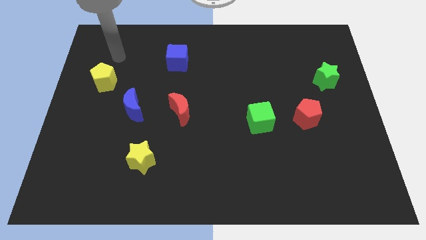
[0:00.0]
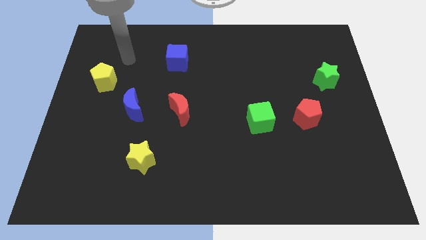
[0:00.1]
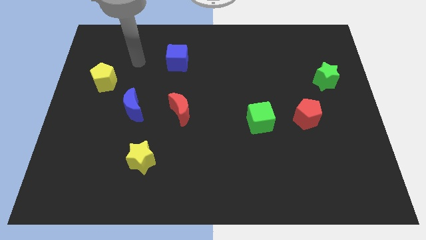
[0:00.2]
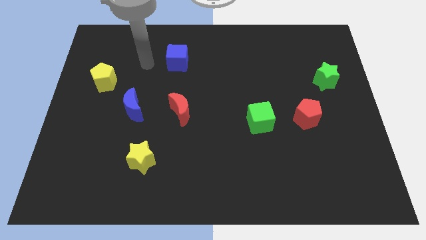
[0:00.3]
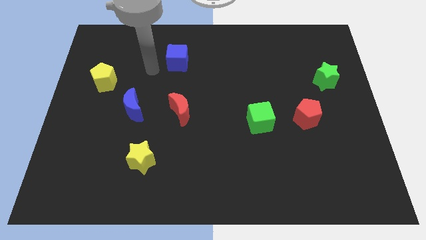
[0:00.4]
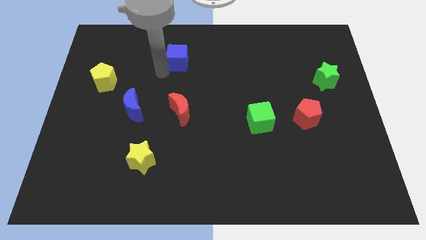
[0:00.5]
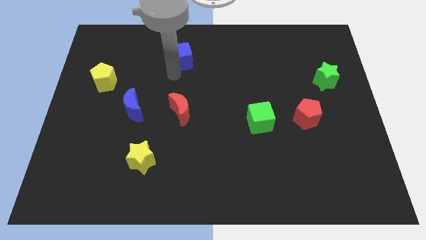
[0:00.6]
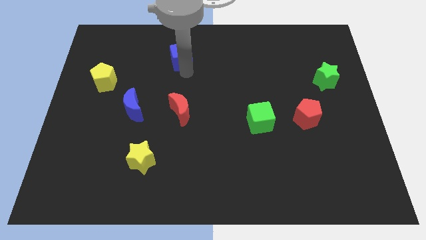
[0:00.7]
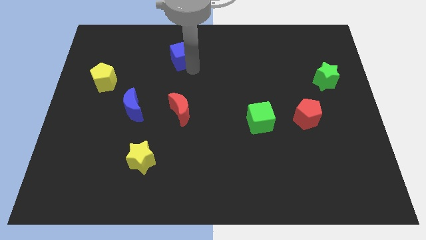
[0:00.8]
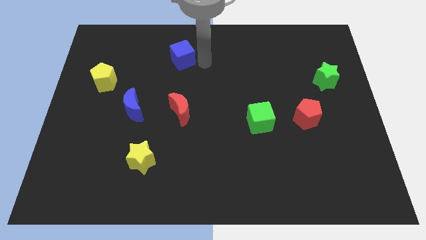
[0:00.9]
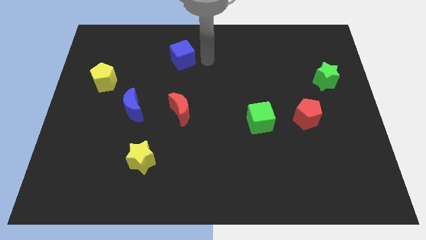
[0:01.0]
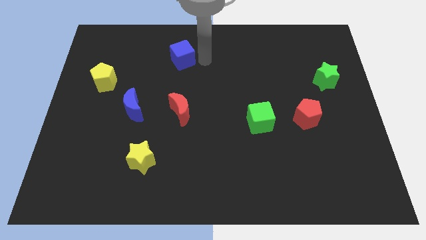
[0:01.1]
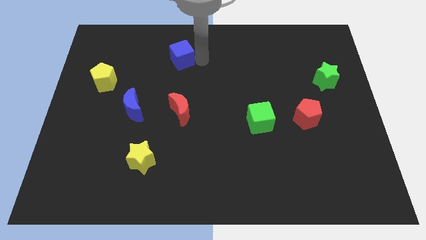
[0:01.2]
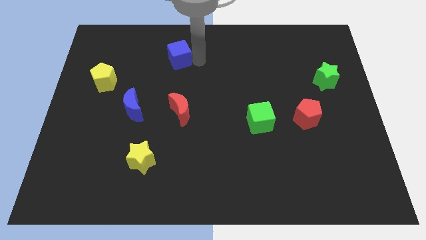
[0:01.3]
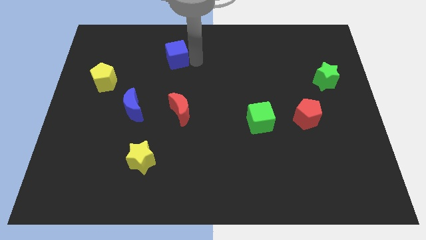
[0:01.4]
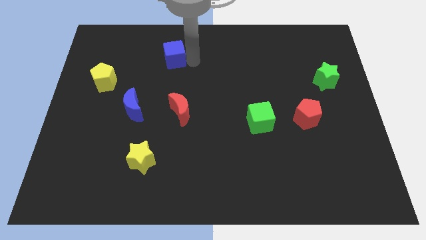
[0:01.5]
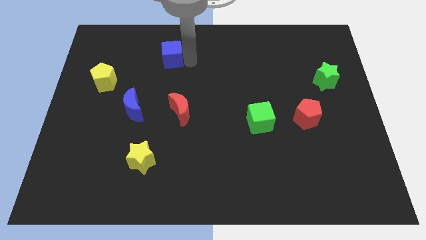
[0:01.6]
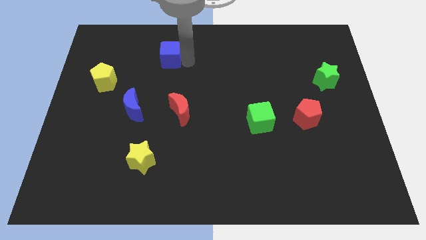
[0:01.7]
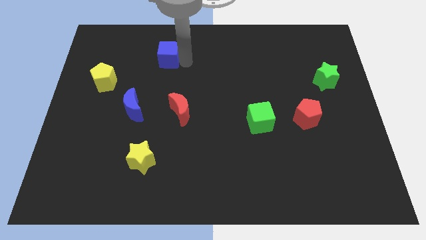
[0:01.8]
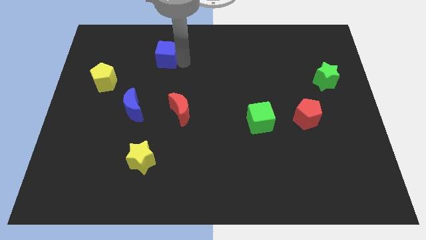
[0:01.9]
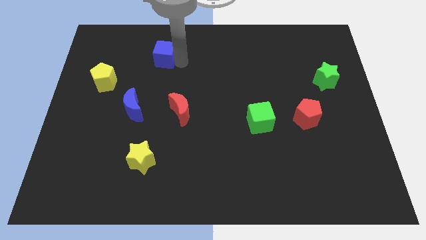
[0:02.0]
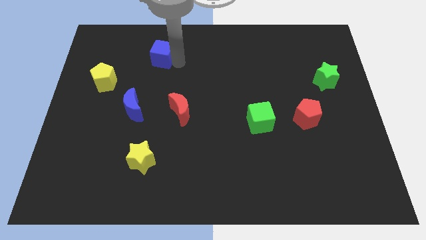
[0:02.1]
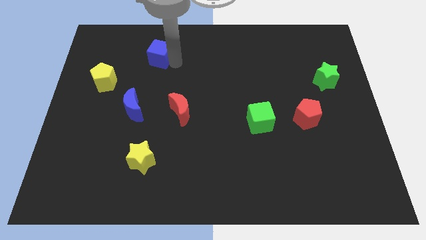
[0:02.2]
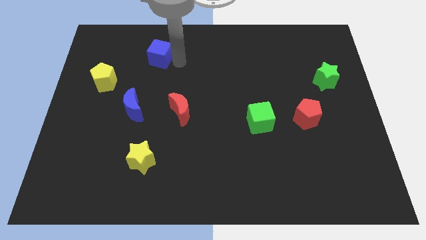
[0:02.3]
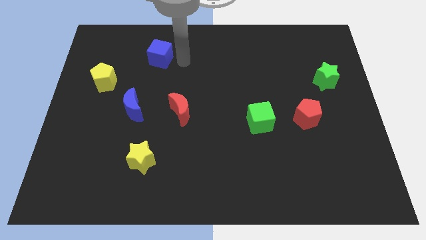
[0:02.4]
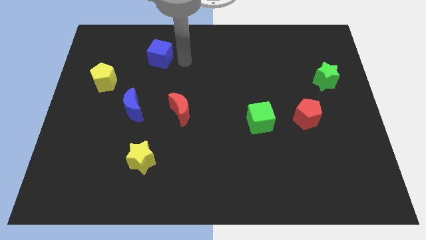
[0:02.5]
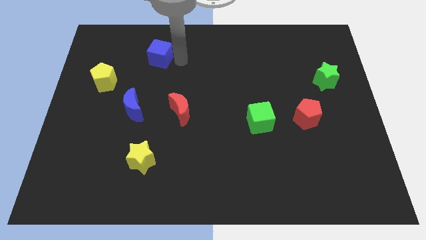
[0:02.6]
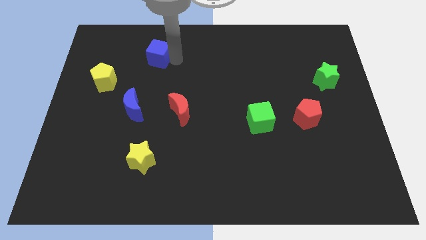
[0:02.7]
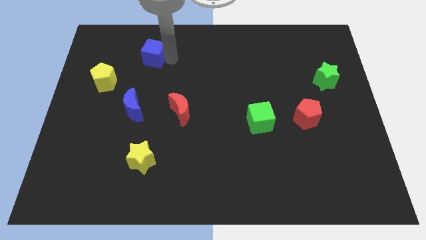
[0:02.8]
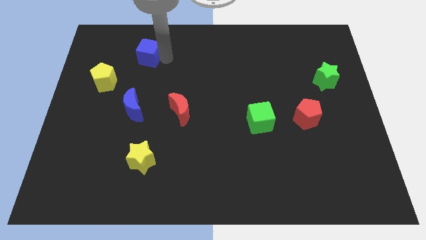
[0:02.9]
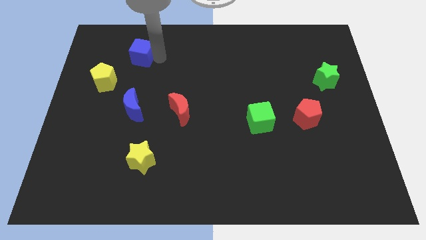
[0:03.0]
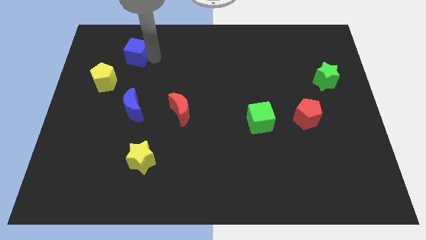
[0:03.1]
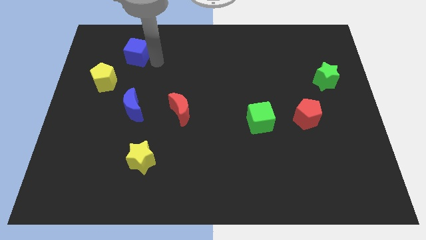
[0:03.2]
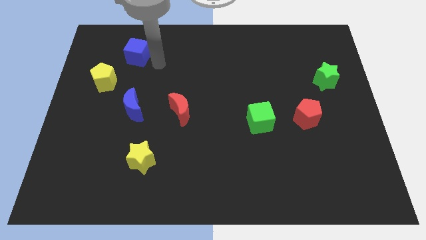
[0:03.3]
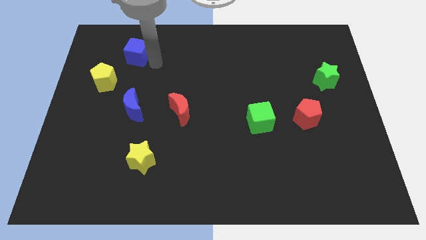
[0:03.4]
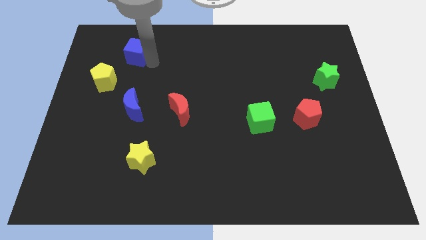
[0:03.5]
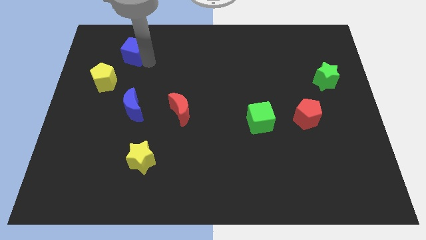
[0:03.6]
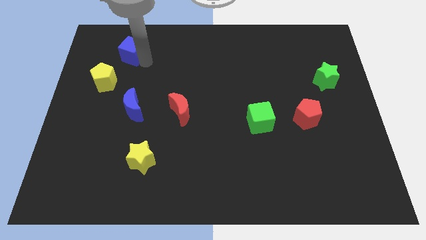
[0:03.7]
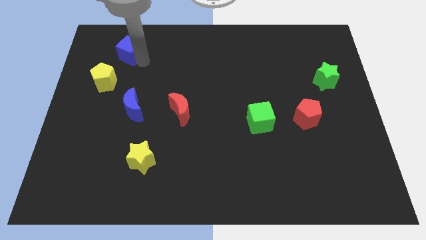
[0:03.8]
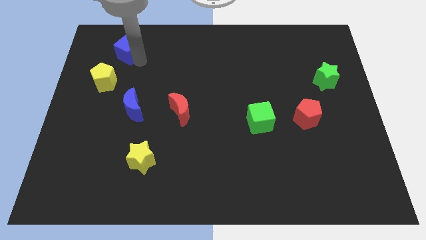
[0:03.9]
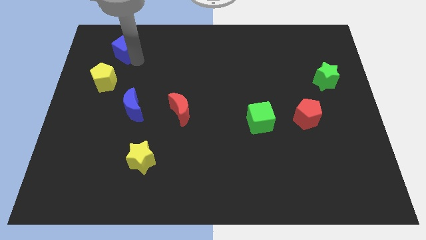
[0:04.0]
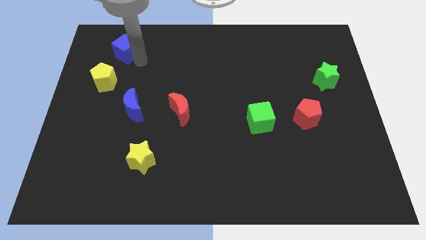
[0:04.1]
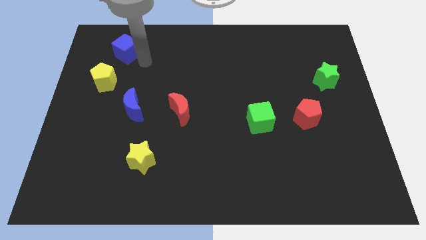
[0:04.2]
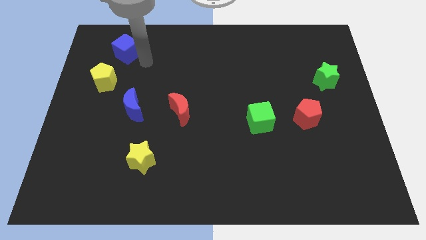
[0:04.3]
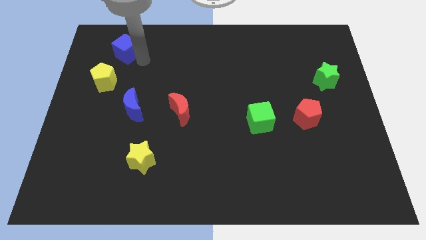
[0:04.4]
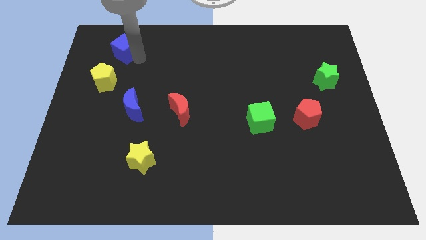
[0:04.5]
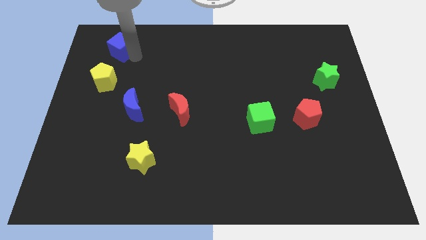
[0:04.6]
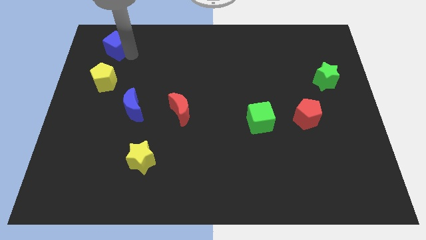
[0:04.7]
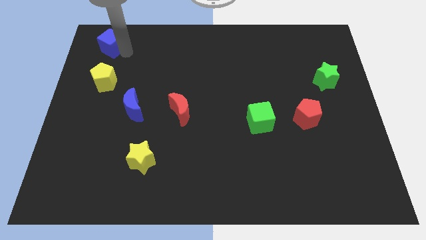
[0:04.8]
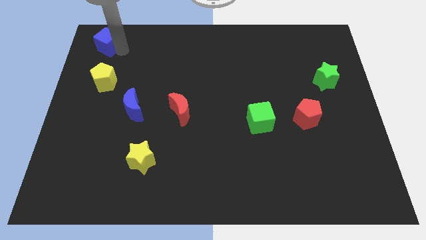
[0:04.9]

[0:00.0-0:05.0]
put the blue cube to the top left

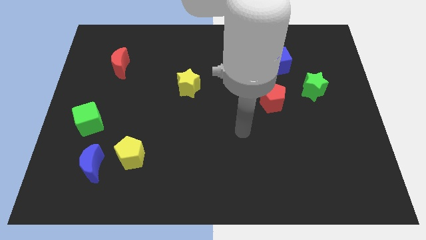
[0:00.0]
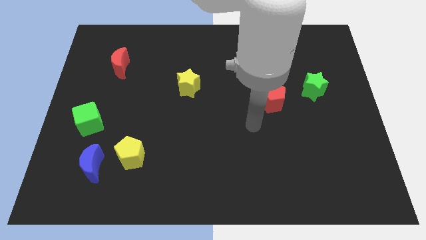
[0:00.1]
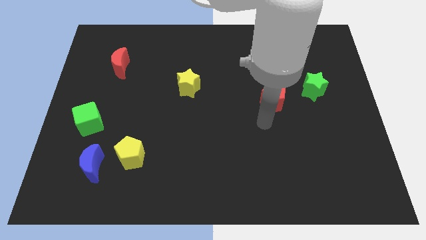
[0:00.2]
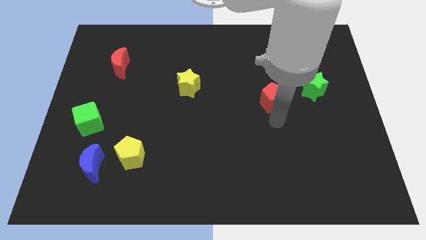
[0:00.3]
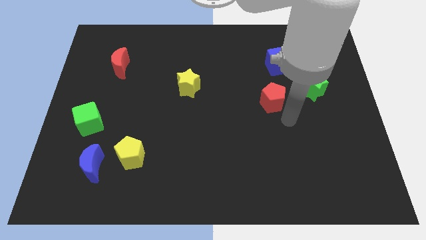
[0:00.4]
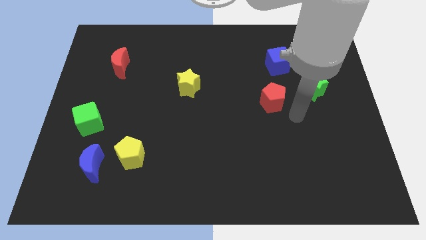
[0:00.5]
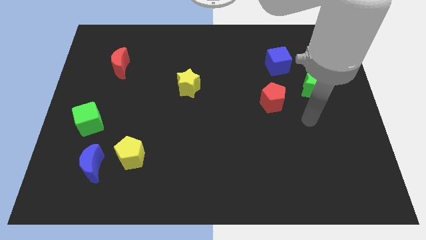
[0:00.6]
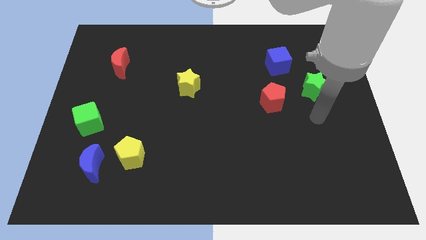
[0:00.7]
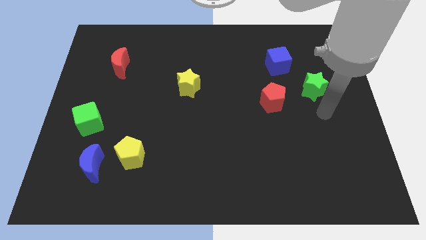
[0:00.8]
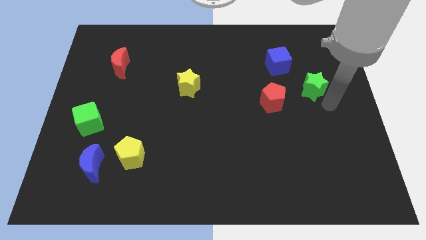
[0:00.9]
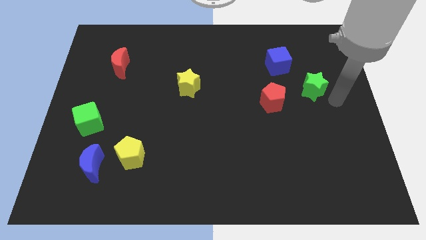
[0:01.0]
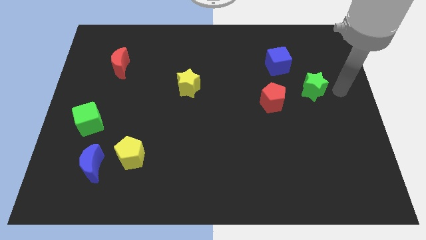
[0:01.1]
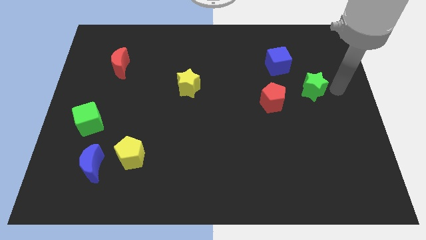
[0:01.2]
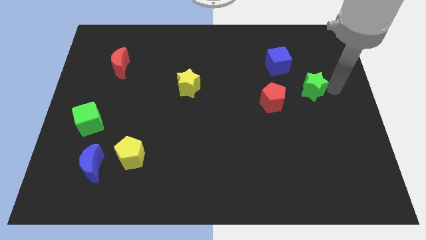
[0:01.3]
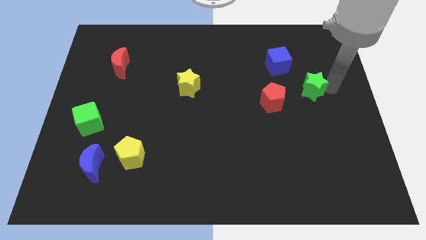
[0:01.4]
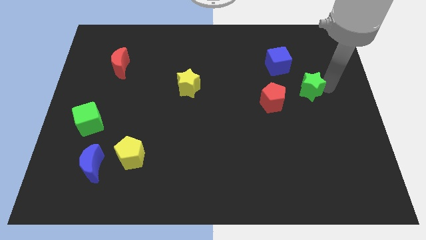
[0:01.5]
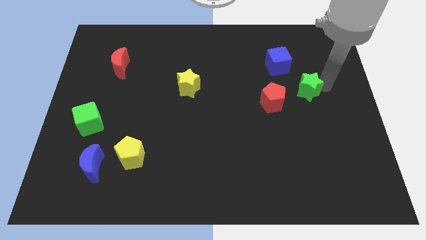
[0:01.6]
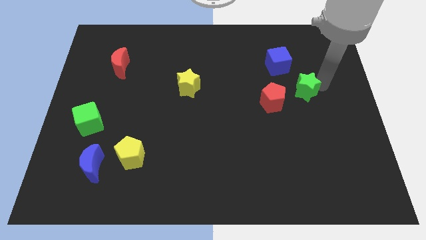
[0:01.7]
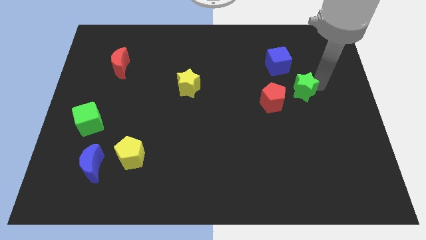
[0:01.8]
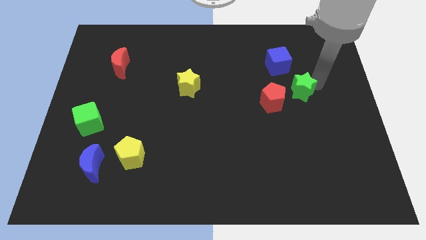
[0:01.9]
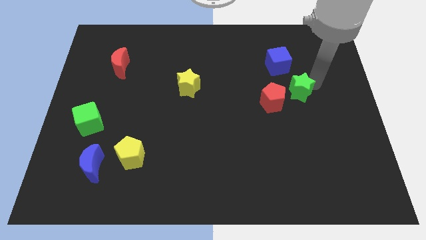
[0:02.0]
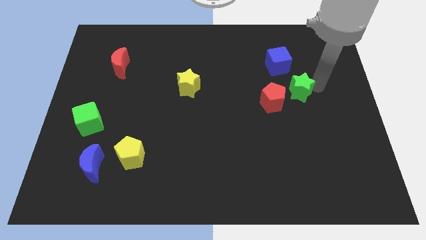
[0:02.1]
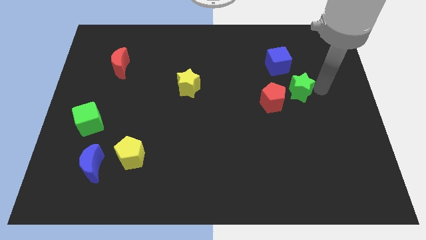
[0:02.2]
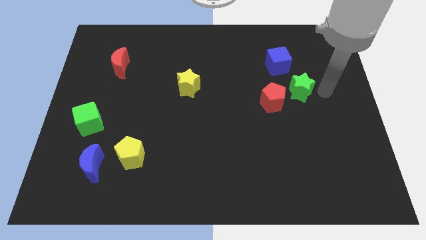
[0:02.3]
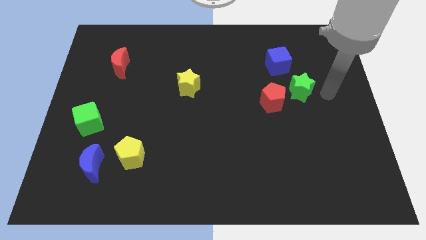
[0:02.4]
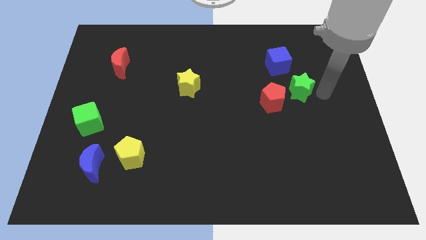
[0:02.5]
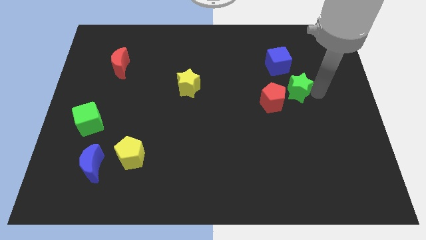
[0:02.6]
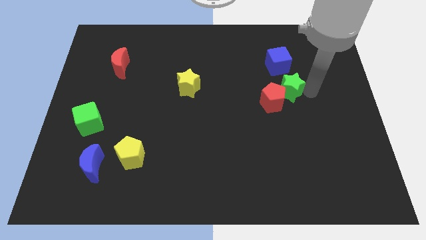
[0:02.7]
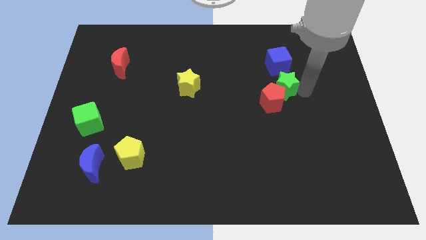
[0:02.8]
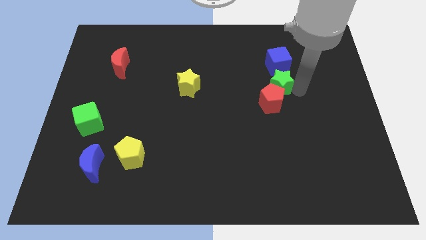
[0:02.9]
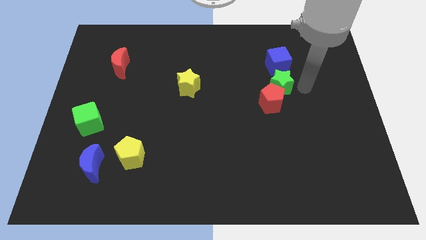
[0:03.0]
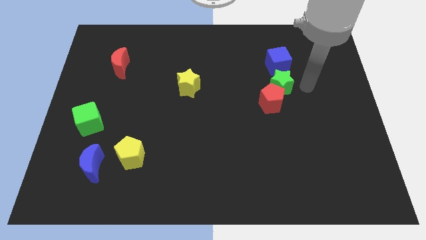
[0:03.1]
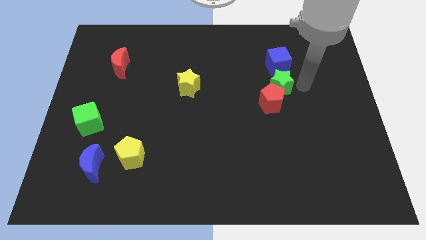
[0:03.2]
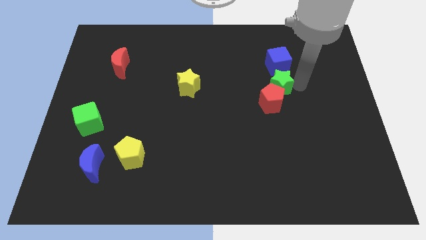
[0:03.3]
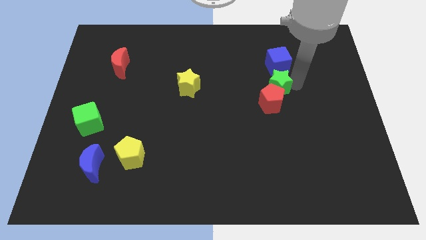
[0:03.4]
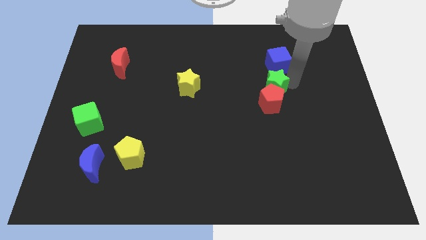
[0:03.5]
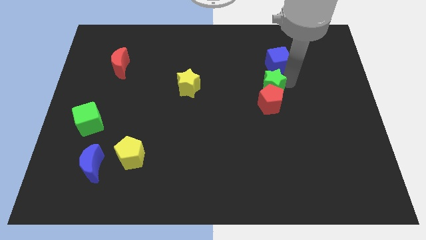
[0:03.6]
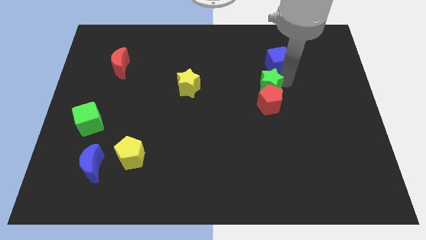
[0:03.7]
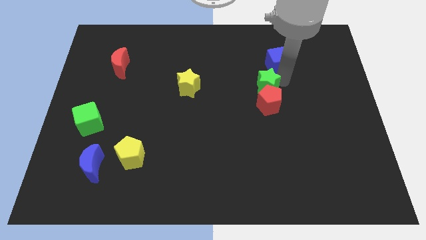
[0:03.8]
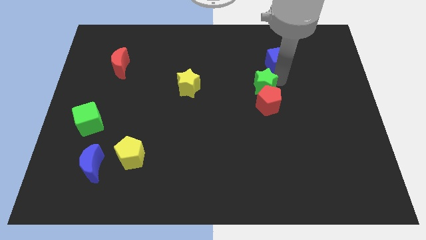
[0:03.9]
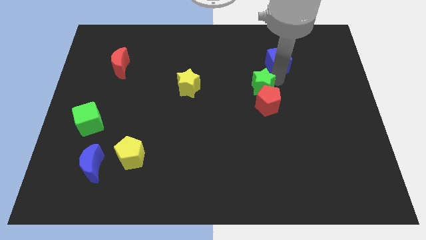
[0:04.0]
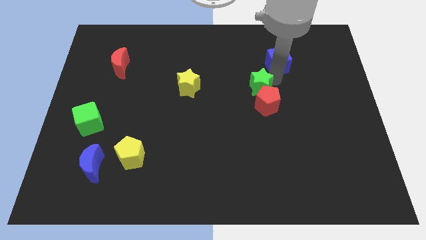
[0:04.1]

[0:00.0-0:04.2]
push the green star to the middle of the board
